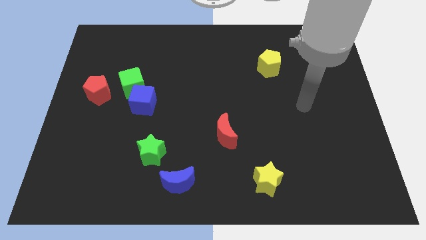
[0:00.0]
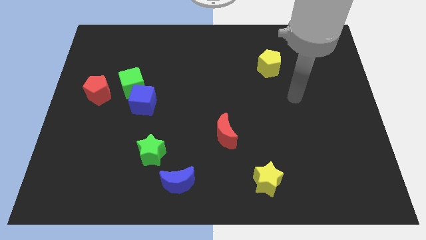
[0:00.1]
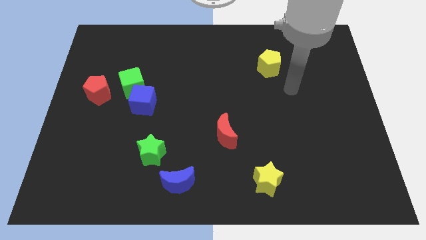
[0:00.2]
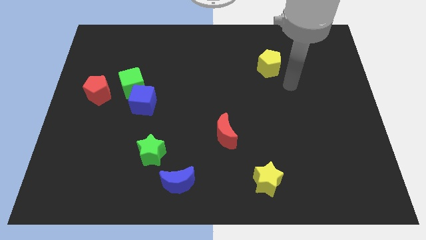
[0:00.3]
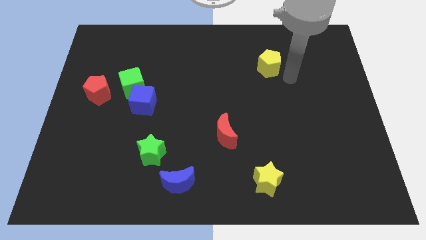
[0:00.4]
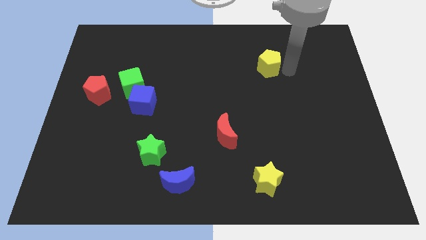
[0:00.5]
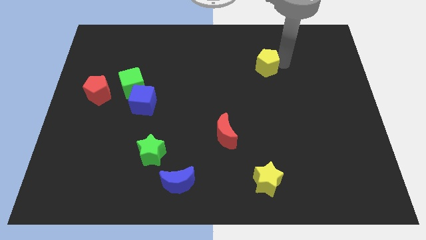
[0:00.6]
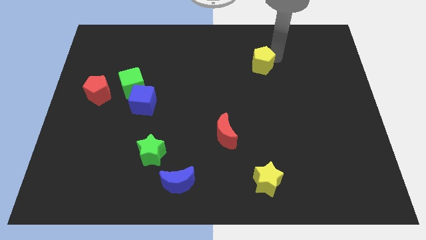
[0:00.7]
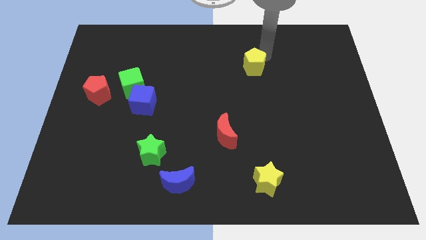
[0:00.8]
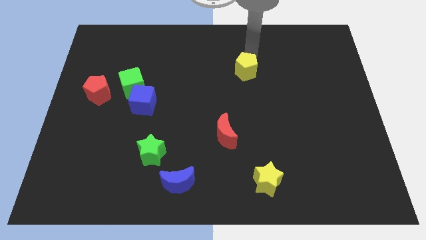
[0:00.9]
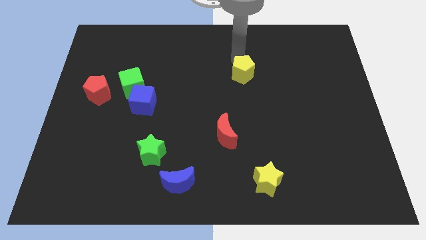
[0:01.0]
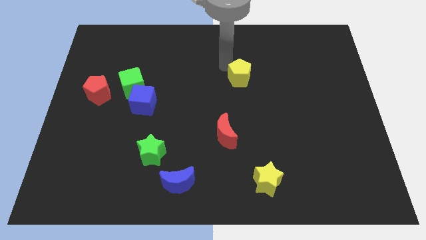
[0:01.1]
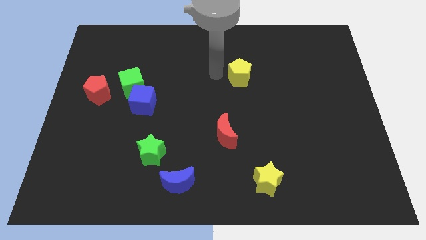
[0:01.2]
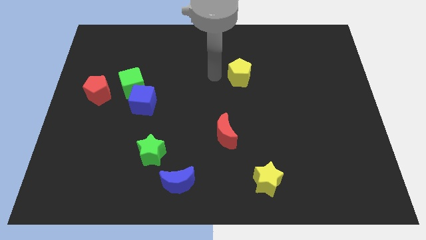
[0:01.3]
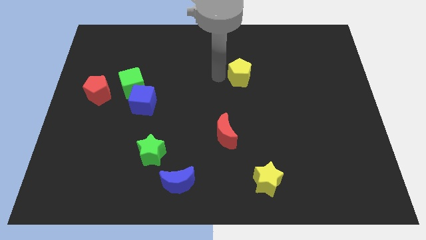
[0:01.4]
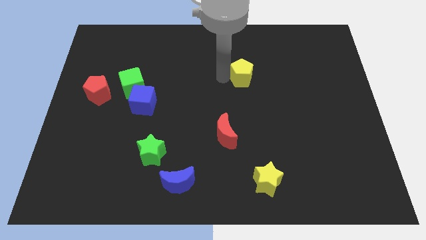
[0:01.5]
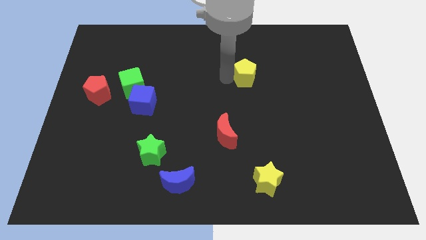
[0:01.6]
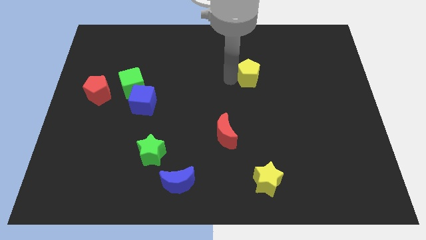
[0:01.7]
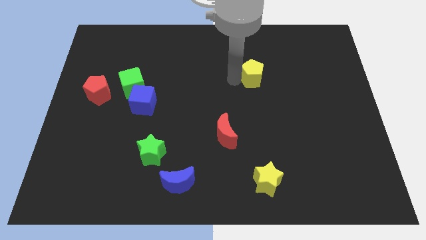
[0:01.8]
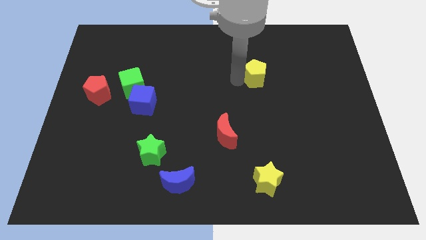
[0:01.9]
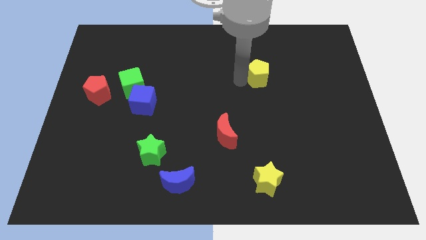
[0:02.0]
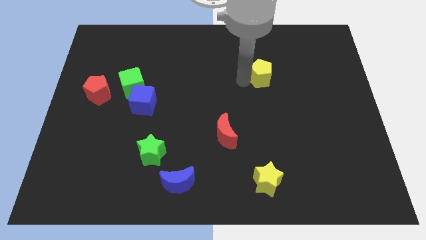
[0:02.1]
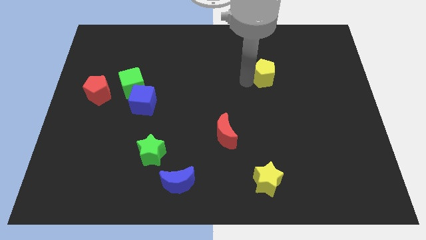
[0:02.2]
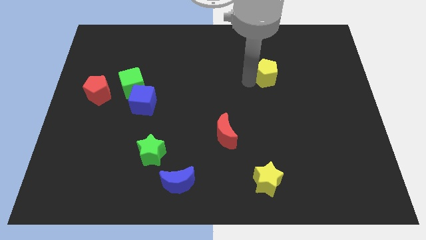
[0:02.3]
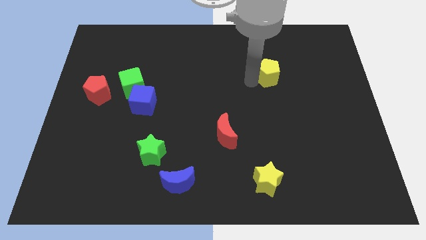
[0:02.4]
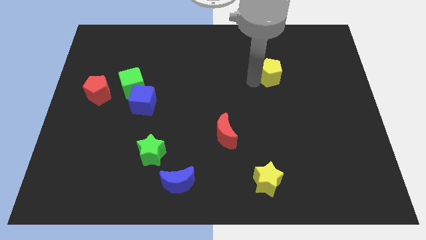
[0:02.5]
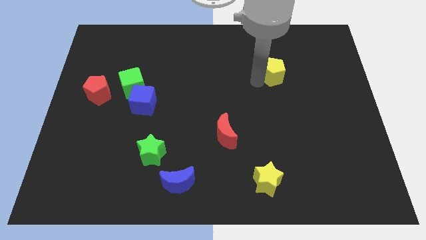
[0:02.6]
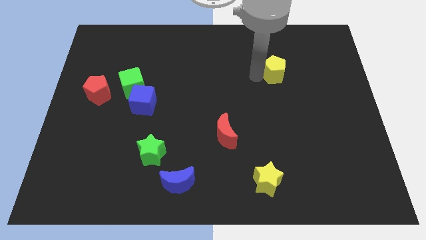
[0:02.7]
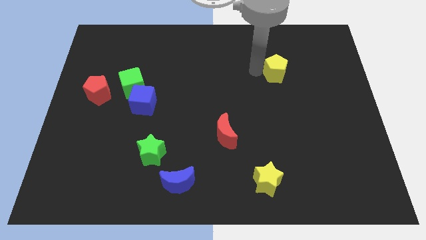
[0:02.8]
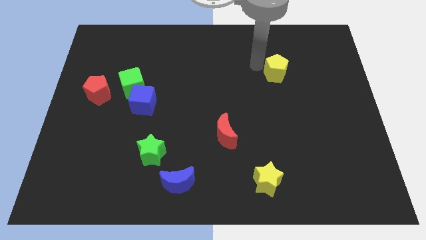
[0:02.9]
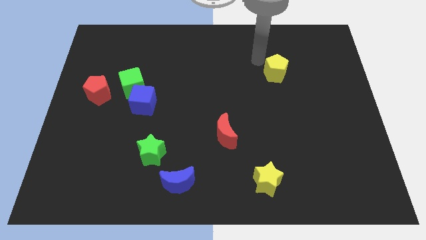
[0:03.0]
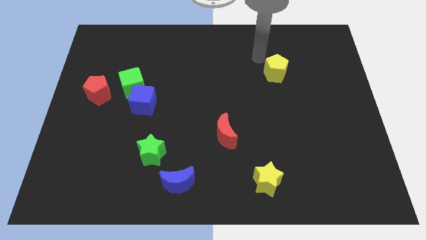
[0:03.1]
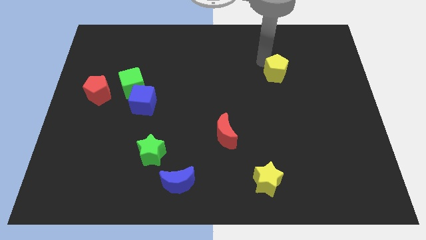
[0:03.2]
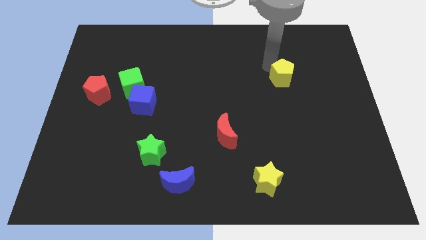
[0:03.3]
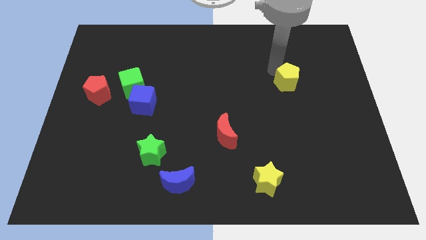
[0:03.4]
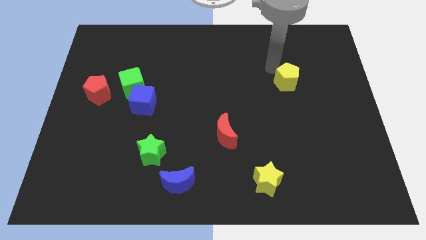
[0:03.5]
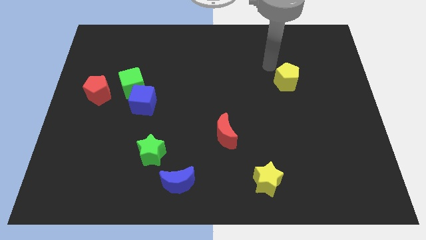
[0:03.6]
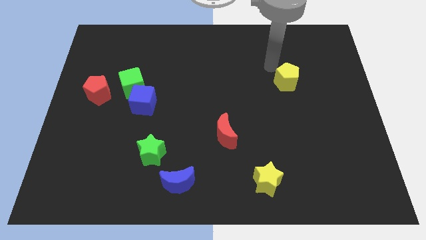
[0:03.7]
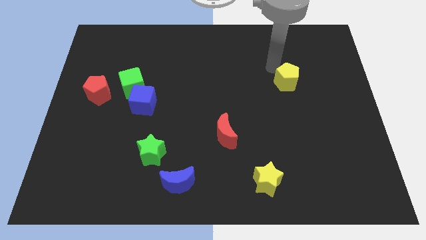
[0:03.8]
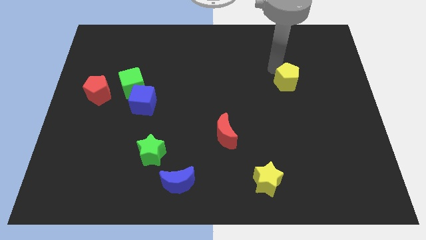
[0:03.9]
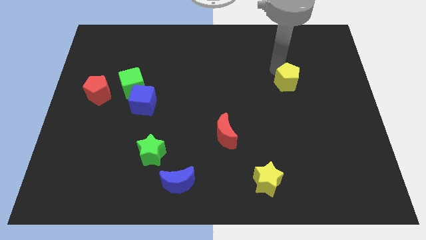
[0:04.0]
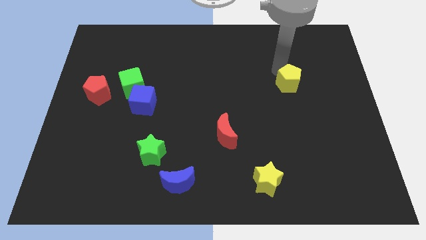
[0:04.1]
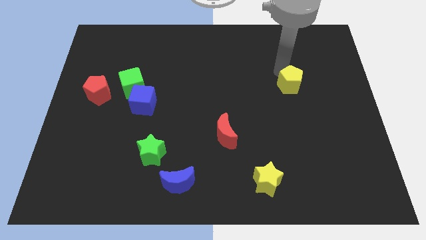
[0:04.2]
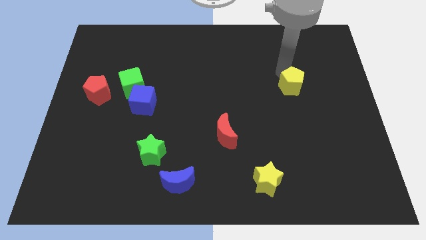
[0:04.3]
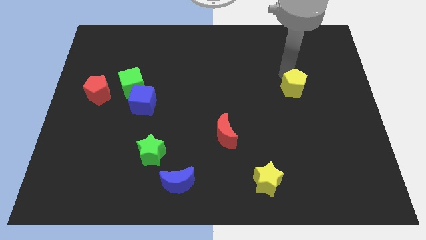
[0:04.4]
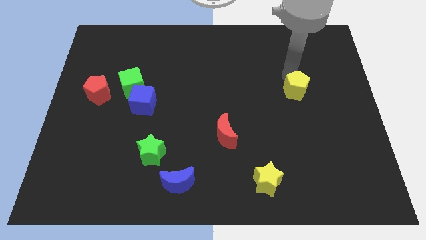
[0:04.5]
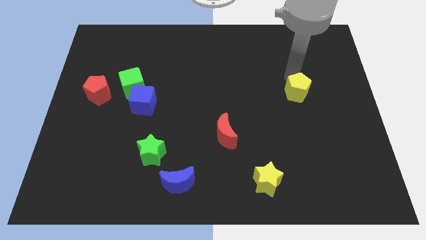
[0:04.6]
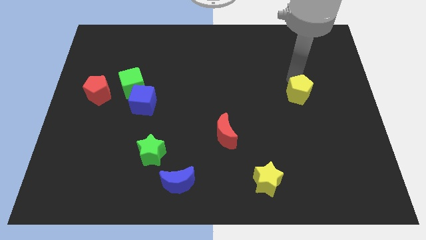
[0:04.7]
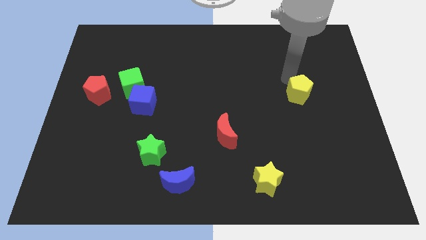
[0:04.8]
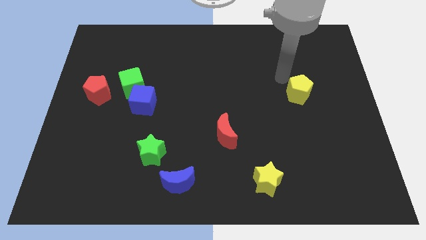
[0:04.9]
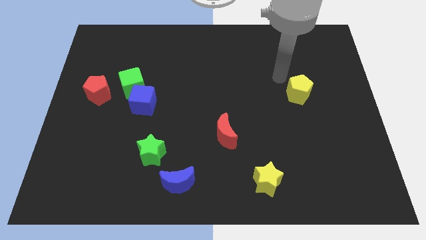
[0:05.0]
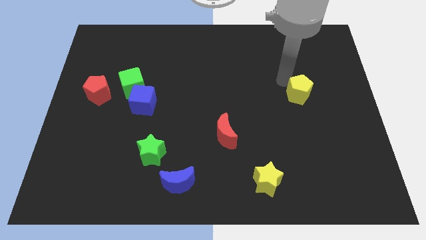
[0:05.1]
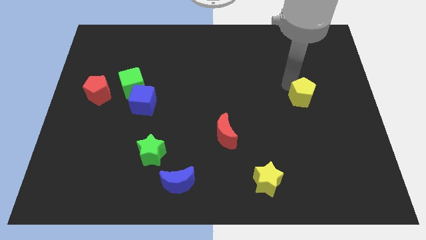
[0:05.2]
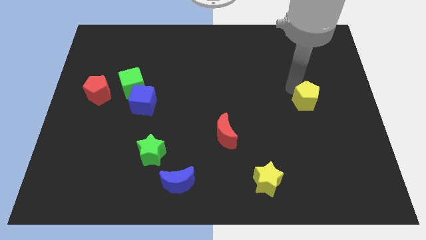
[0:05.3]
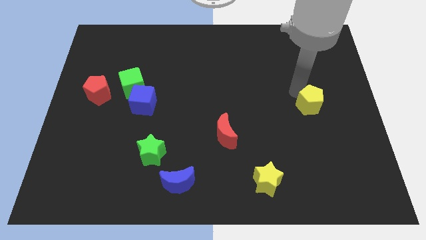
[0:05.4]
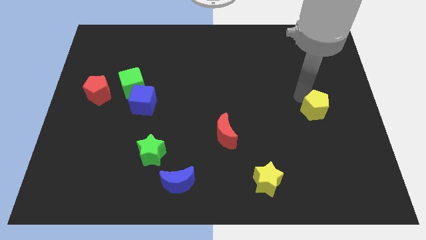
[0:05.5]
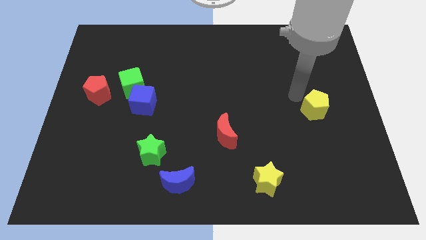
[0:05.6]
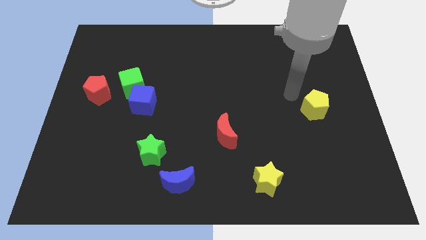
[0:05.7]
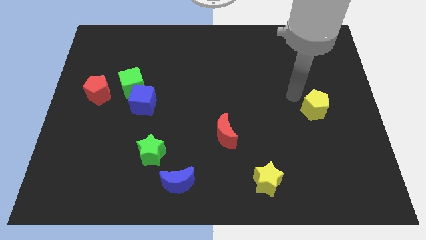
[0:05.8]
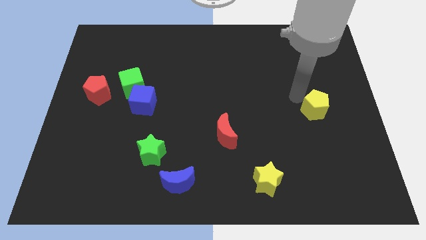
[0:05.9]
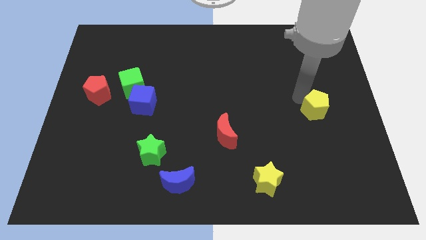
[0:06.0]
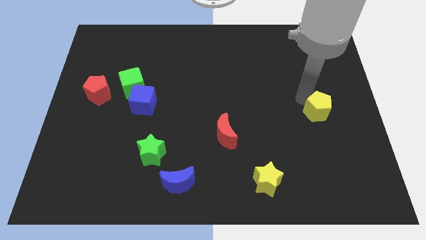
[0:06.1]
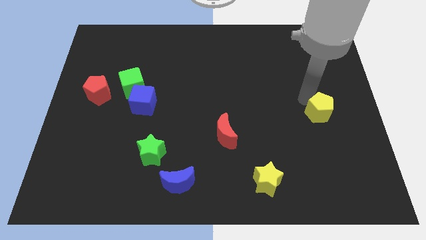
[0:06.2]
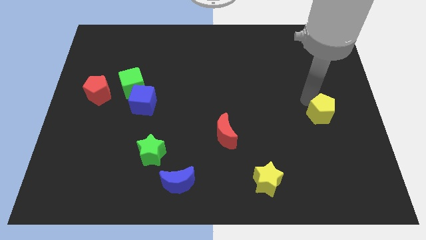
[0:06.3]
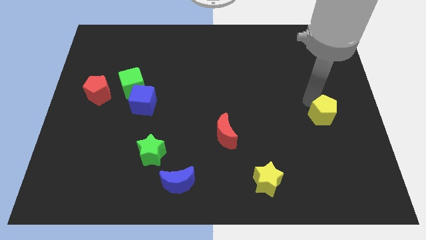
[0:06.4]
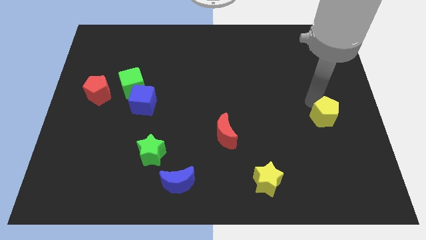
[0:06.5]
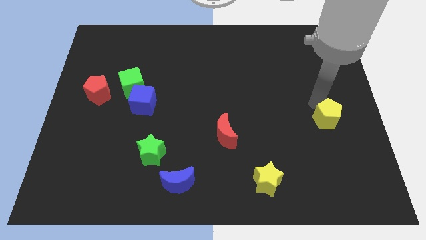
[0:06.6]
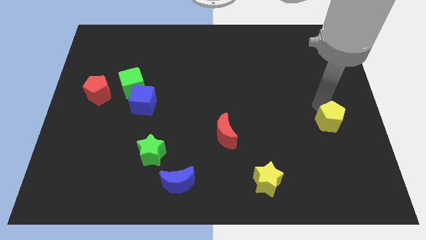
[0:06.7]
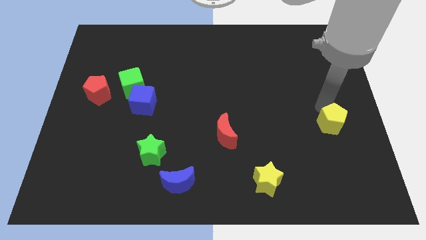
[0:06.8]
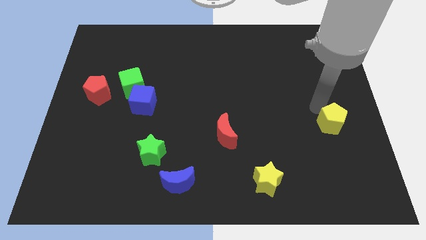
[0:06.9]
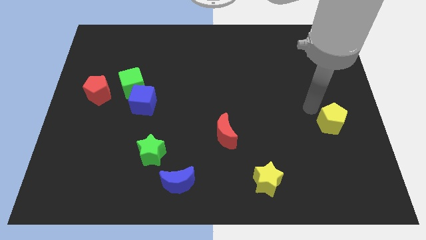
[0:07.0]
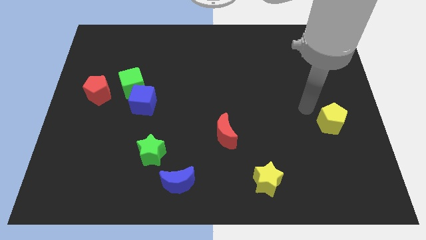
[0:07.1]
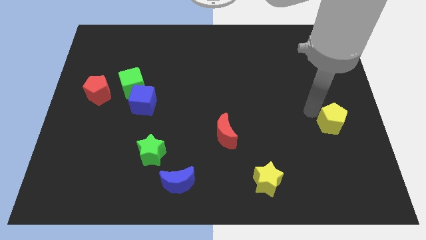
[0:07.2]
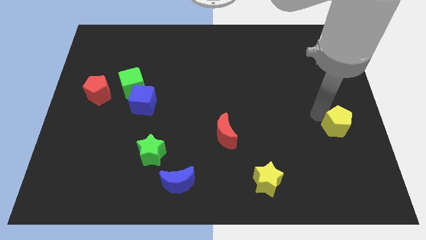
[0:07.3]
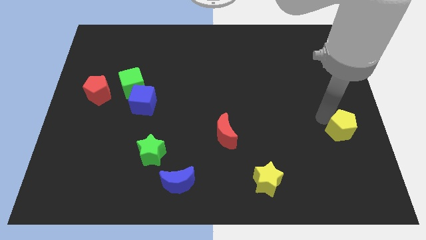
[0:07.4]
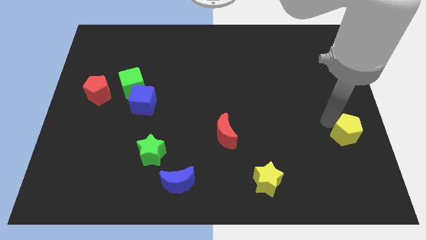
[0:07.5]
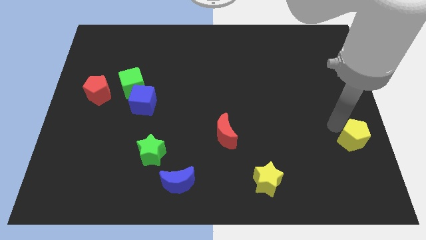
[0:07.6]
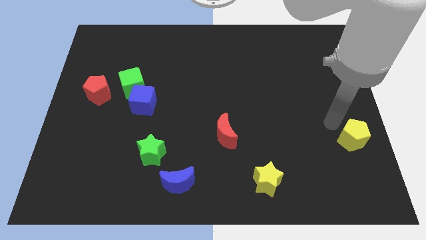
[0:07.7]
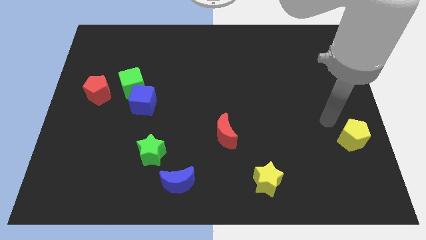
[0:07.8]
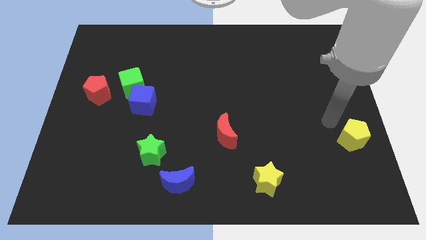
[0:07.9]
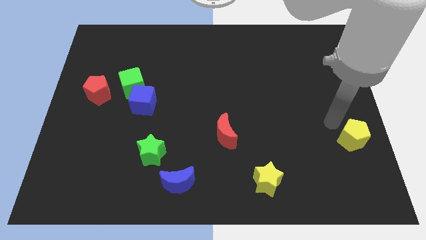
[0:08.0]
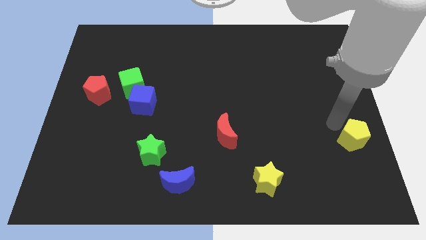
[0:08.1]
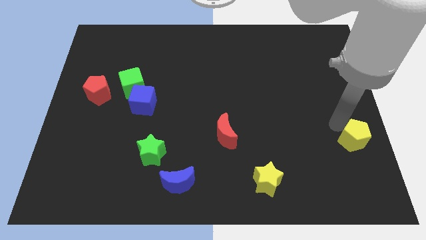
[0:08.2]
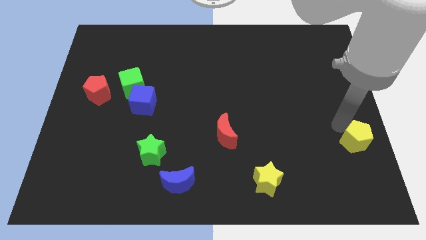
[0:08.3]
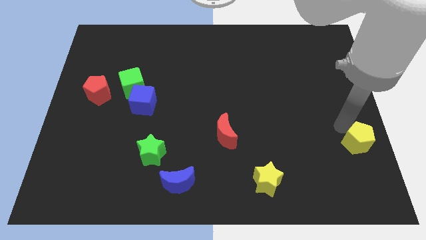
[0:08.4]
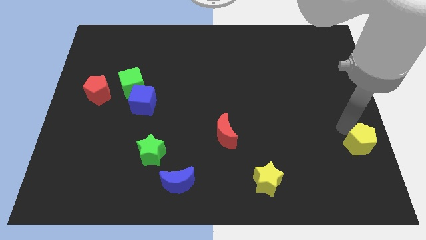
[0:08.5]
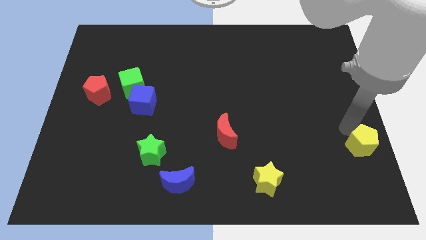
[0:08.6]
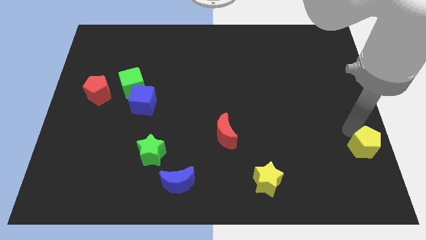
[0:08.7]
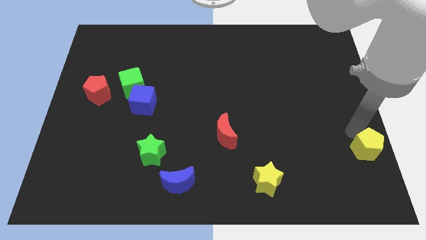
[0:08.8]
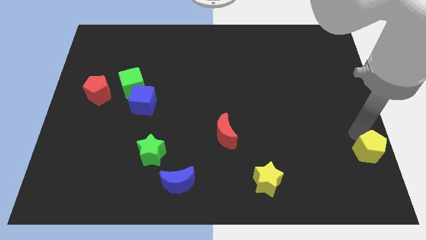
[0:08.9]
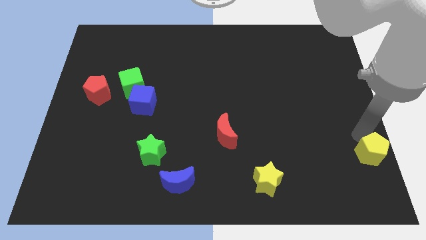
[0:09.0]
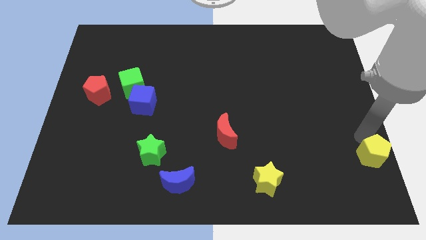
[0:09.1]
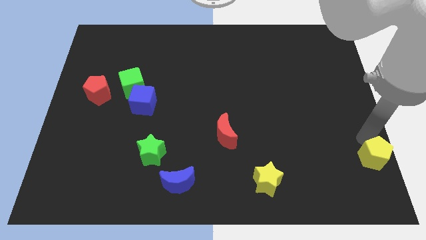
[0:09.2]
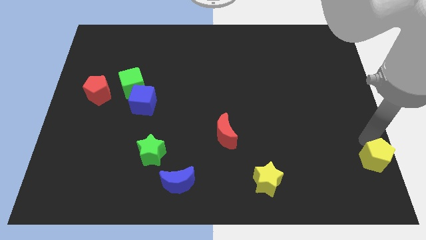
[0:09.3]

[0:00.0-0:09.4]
move the yellow pentagon to the bottom right of the board
